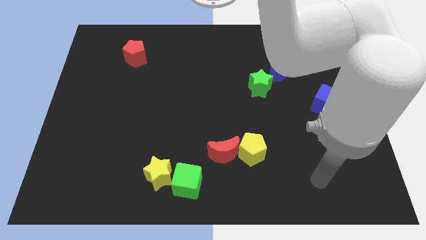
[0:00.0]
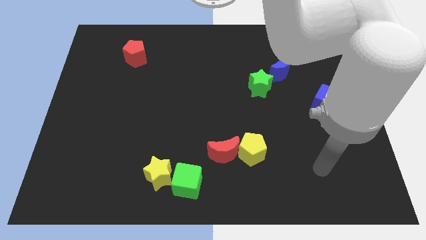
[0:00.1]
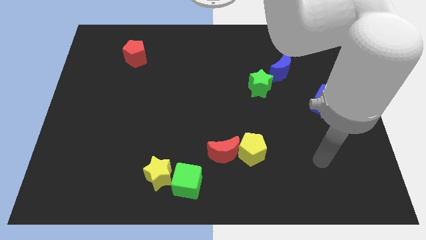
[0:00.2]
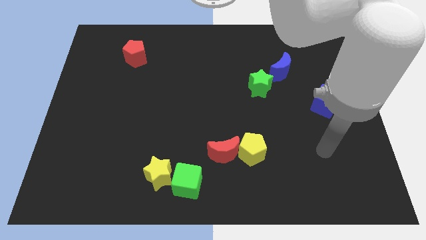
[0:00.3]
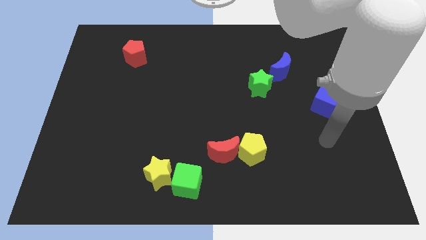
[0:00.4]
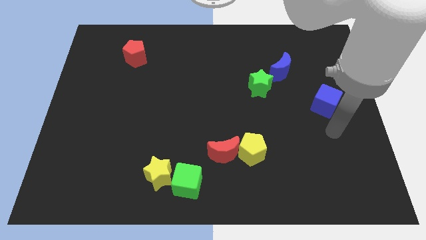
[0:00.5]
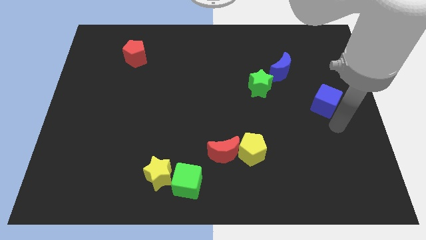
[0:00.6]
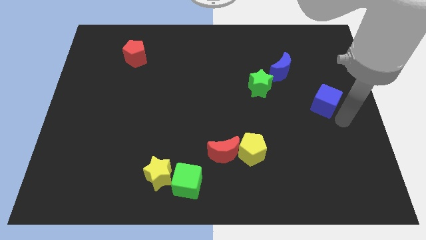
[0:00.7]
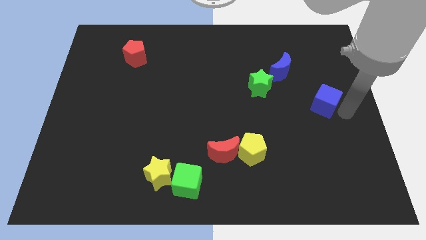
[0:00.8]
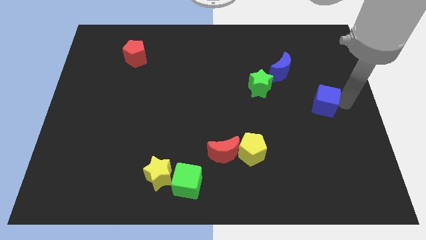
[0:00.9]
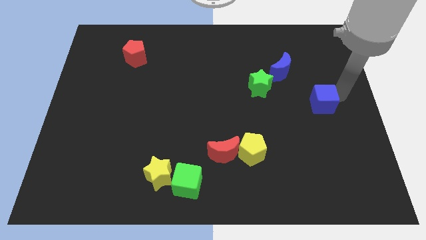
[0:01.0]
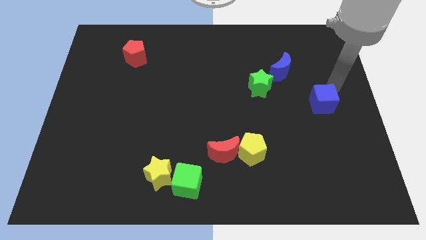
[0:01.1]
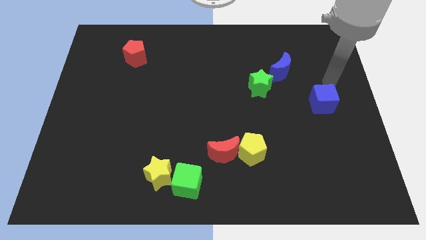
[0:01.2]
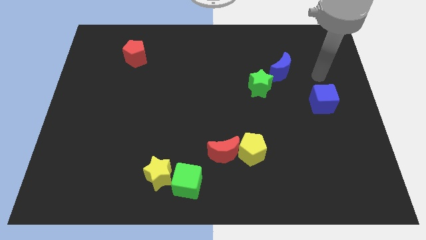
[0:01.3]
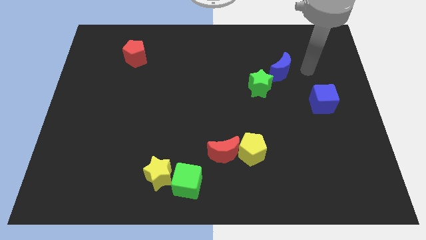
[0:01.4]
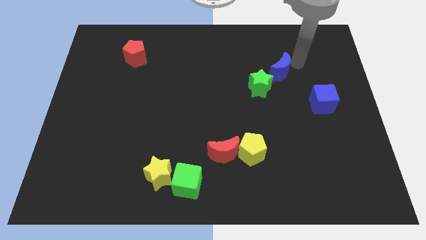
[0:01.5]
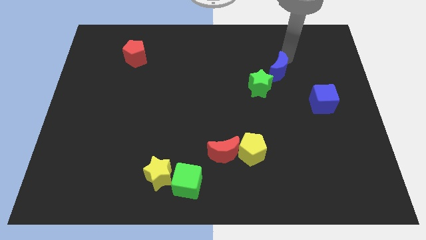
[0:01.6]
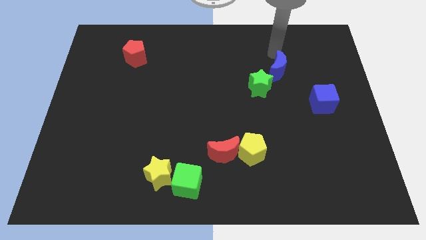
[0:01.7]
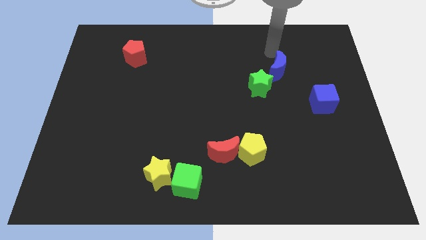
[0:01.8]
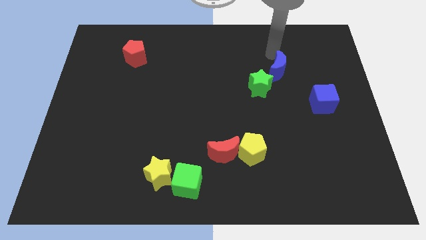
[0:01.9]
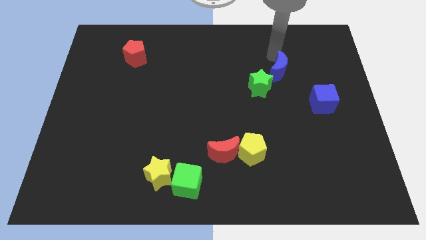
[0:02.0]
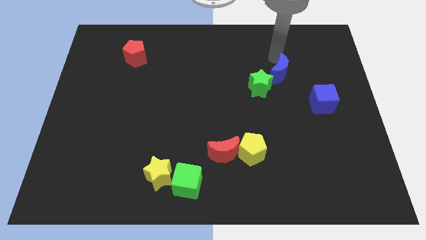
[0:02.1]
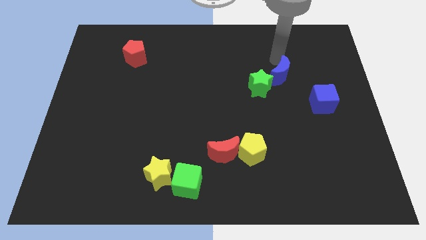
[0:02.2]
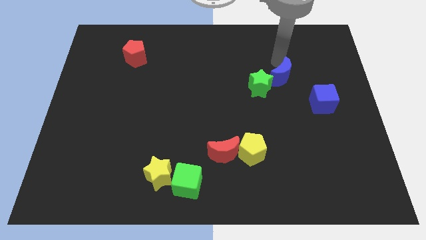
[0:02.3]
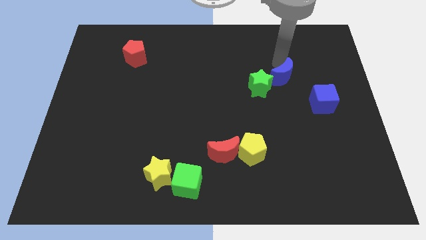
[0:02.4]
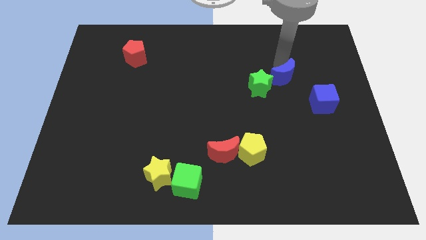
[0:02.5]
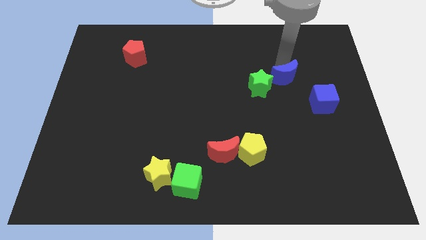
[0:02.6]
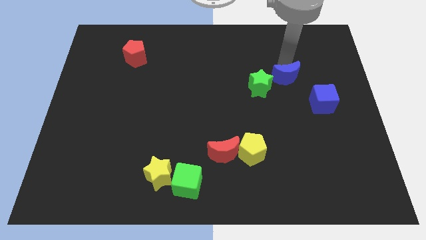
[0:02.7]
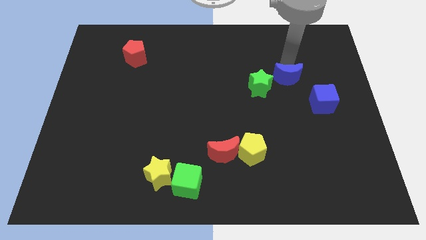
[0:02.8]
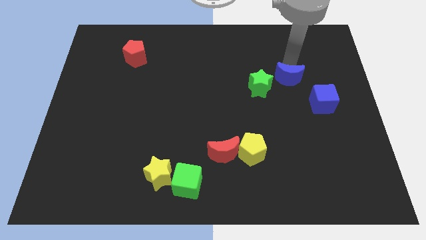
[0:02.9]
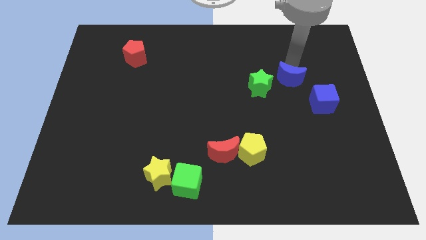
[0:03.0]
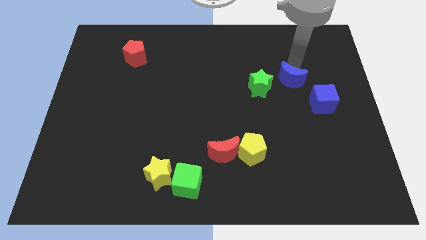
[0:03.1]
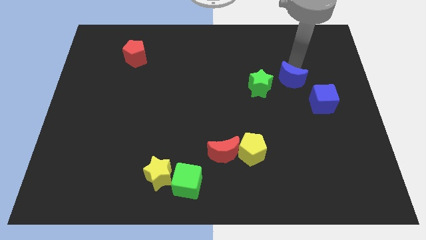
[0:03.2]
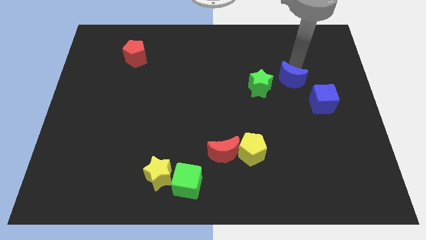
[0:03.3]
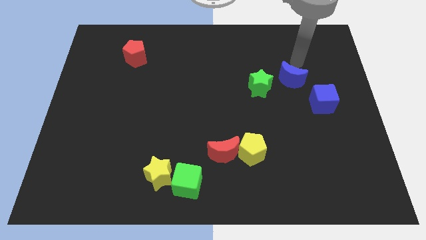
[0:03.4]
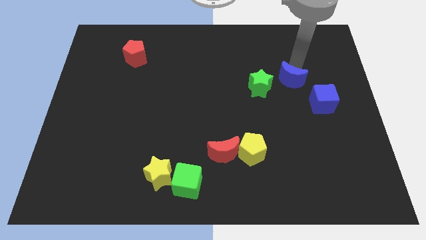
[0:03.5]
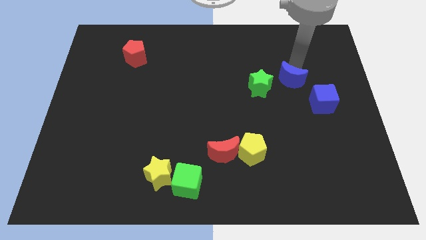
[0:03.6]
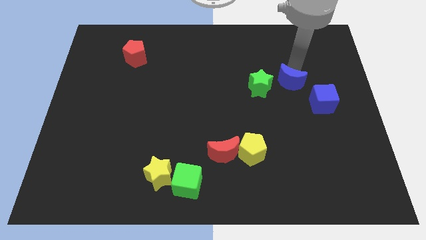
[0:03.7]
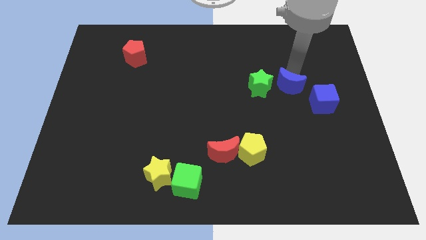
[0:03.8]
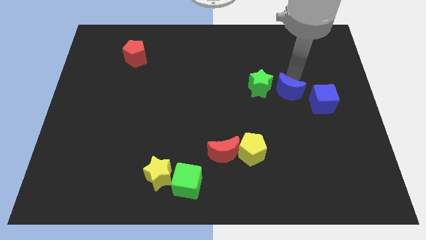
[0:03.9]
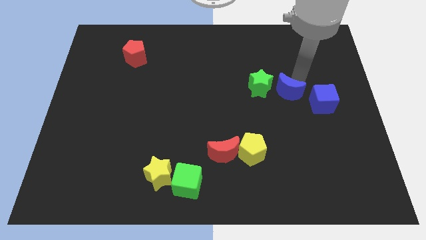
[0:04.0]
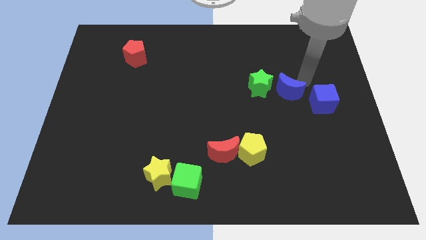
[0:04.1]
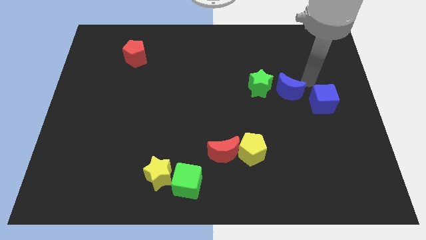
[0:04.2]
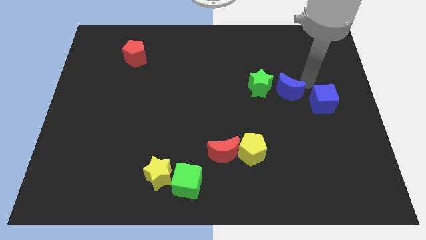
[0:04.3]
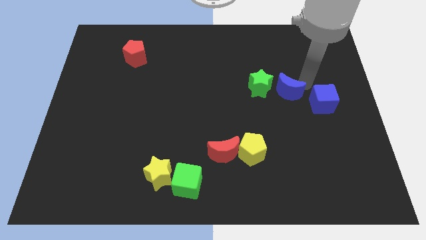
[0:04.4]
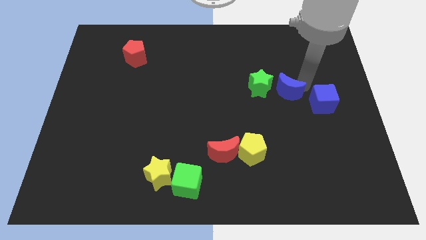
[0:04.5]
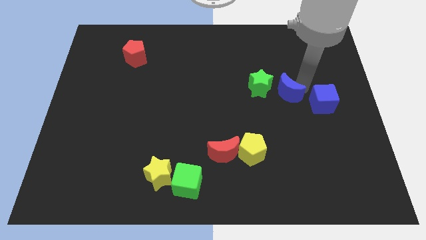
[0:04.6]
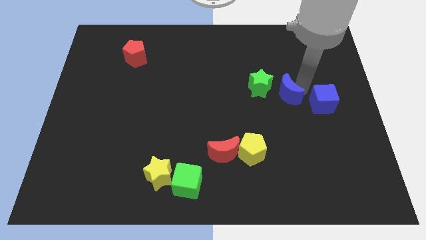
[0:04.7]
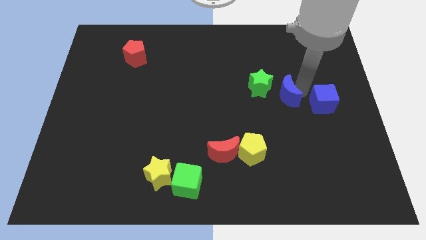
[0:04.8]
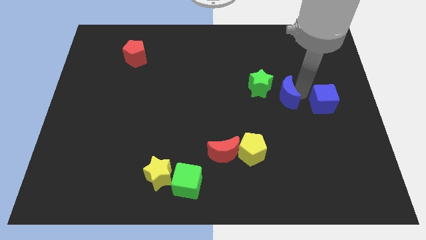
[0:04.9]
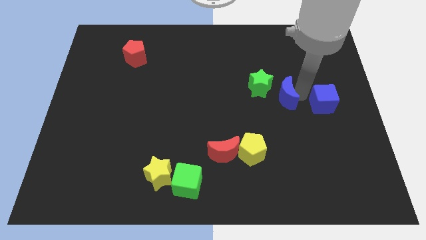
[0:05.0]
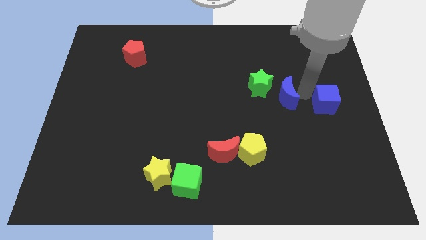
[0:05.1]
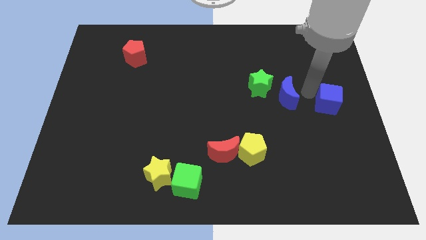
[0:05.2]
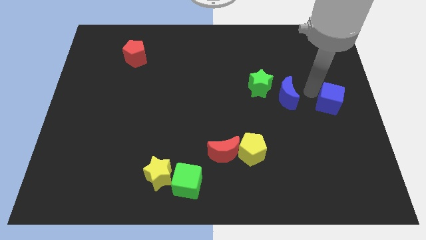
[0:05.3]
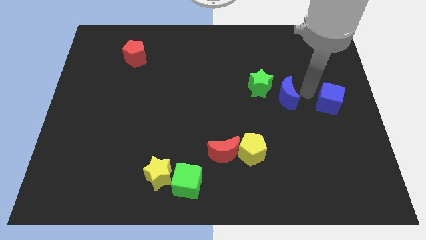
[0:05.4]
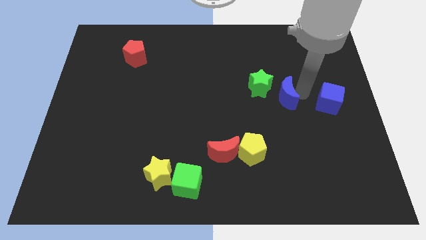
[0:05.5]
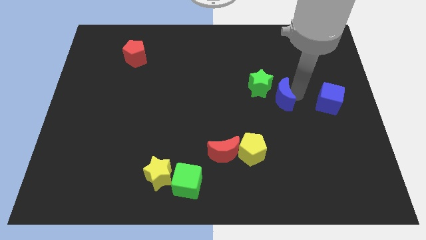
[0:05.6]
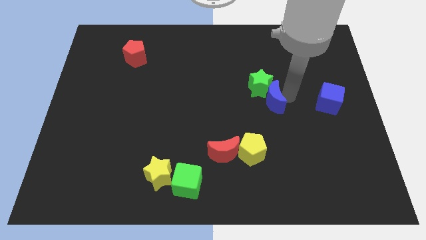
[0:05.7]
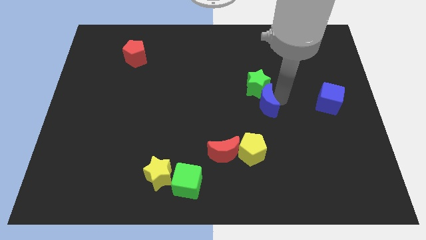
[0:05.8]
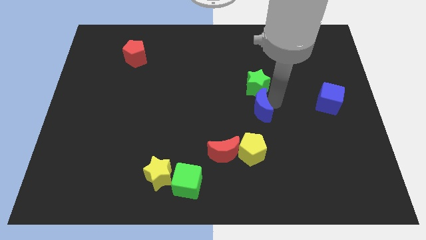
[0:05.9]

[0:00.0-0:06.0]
push the blue moon to the bottom left of the green star

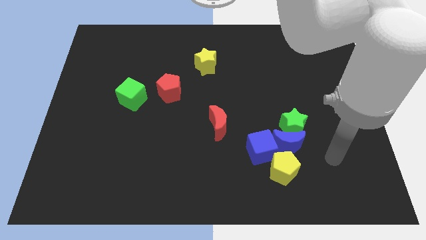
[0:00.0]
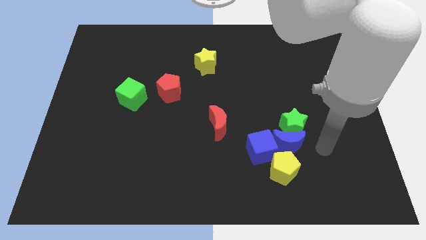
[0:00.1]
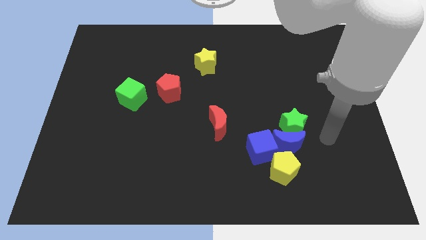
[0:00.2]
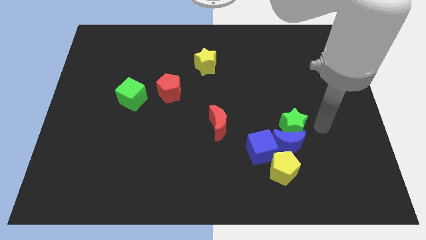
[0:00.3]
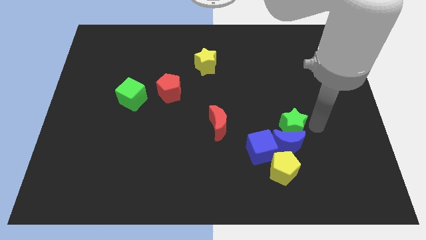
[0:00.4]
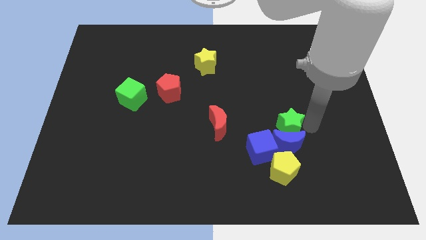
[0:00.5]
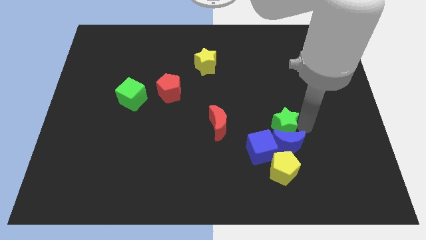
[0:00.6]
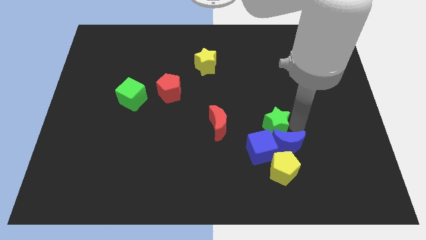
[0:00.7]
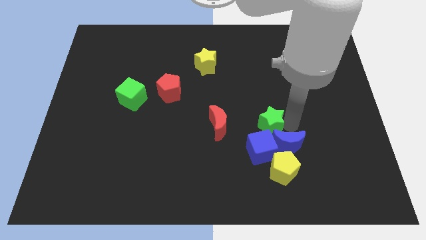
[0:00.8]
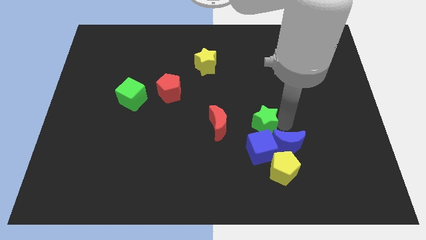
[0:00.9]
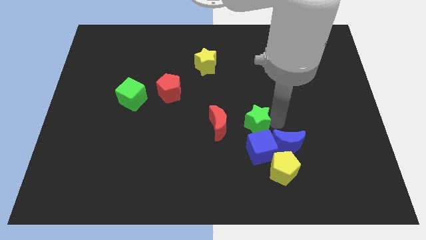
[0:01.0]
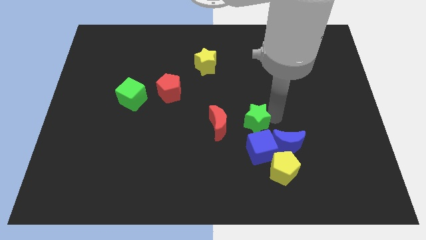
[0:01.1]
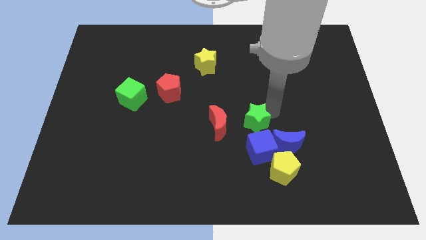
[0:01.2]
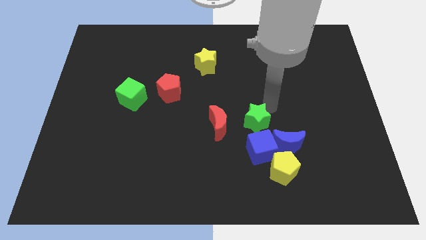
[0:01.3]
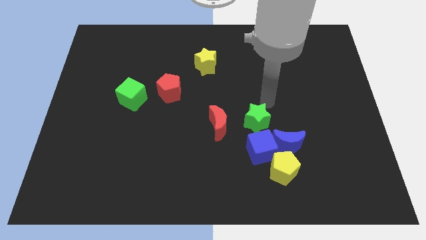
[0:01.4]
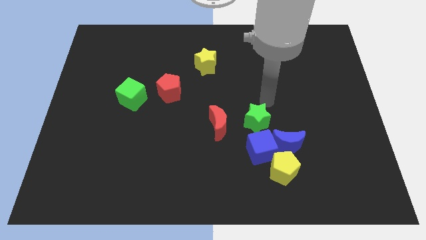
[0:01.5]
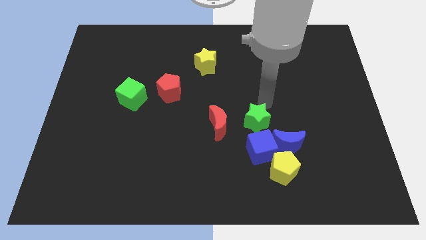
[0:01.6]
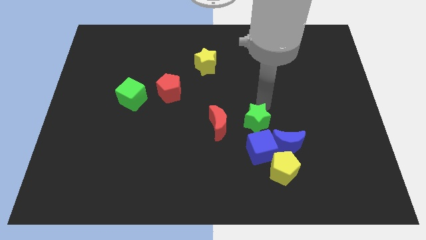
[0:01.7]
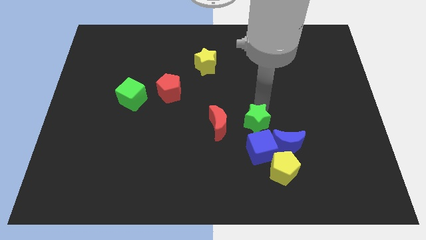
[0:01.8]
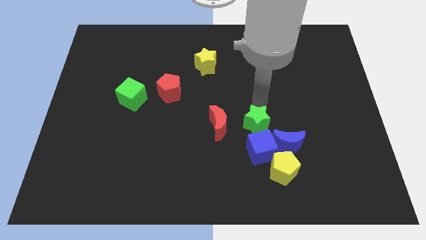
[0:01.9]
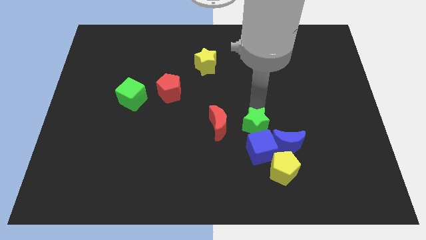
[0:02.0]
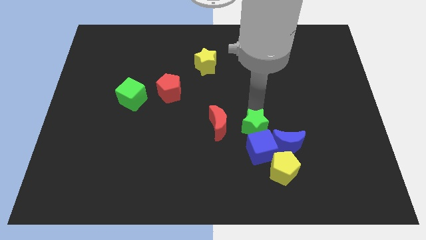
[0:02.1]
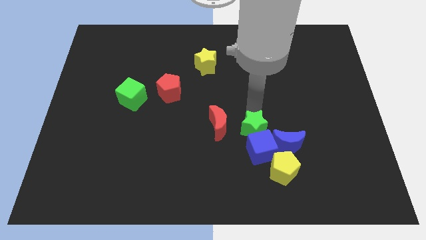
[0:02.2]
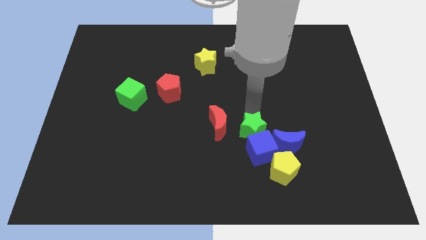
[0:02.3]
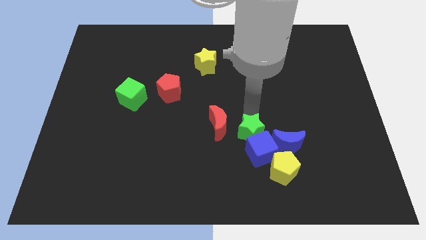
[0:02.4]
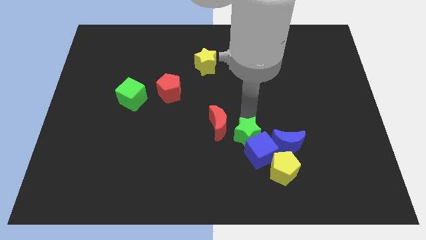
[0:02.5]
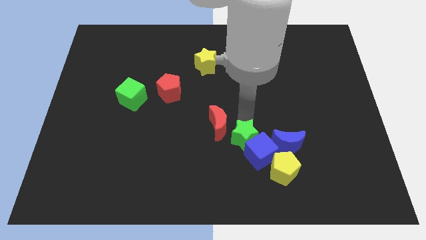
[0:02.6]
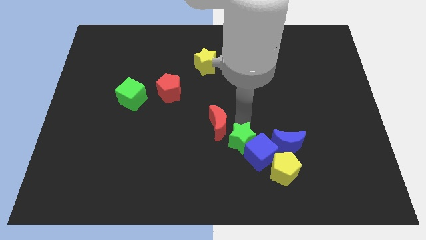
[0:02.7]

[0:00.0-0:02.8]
slide the green star to the bottom side of the red moon
